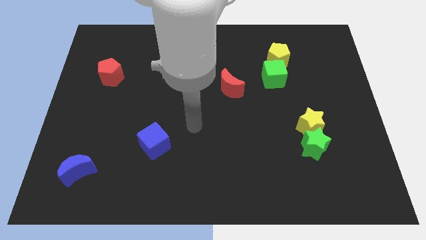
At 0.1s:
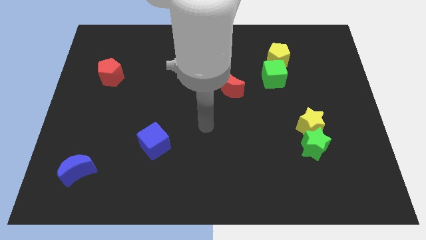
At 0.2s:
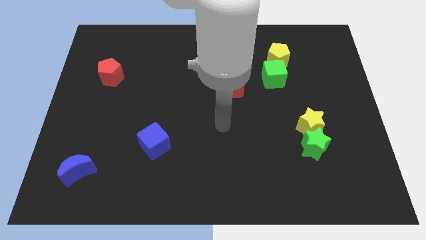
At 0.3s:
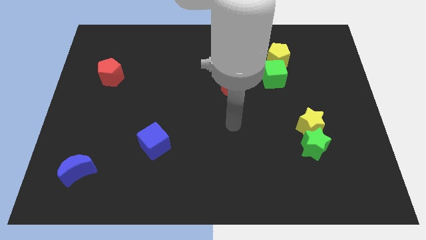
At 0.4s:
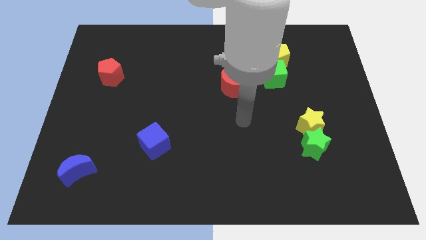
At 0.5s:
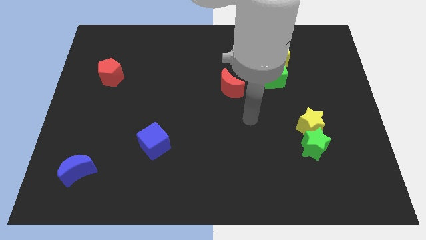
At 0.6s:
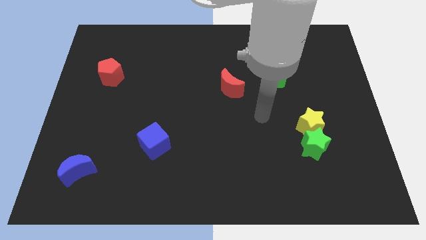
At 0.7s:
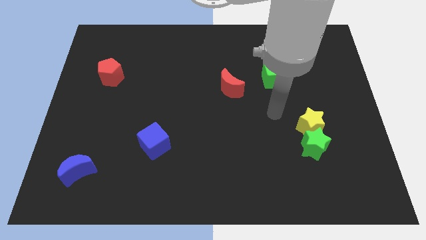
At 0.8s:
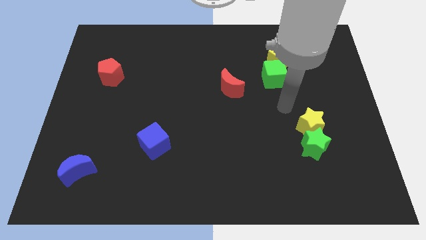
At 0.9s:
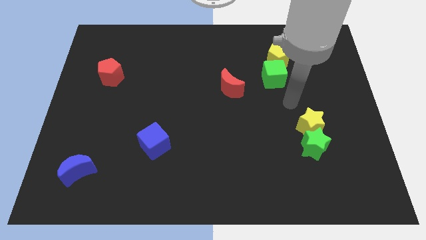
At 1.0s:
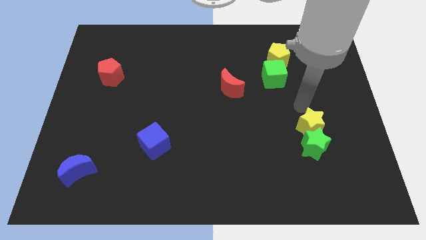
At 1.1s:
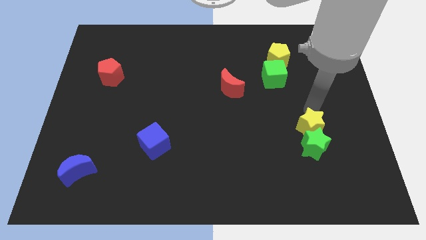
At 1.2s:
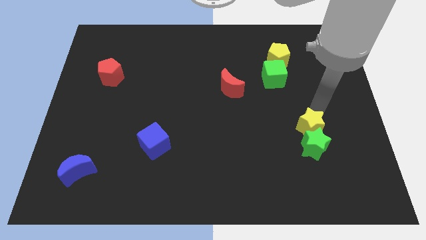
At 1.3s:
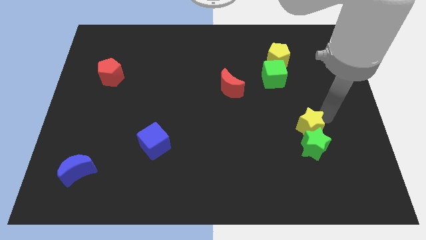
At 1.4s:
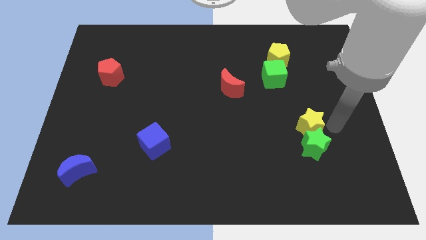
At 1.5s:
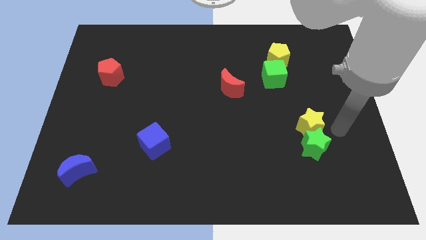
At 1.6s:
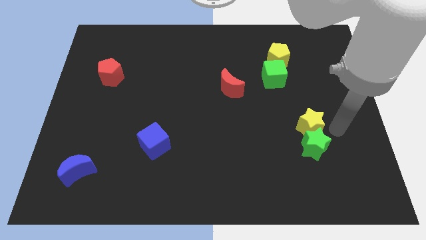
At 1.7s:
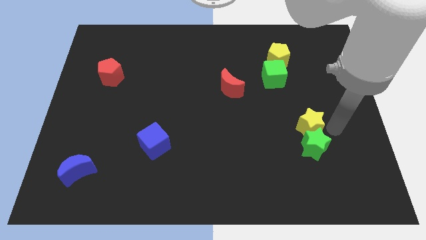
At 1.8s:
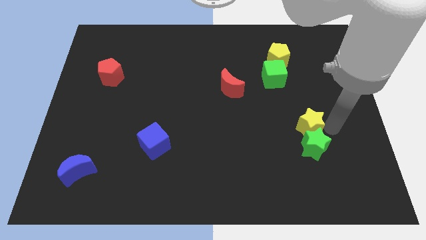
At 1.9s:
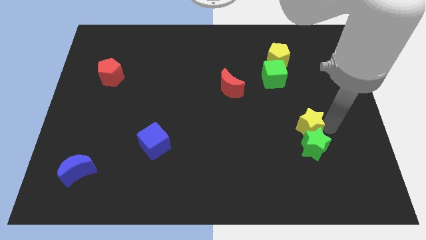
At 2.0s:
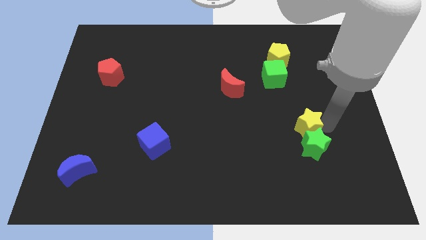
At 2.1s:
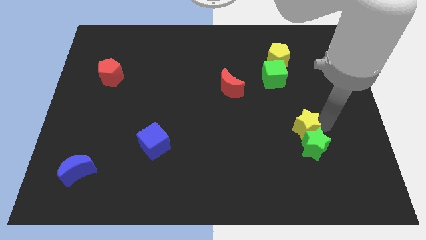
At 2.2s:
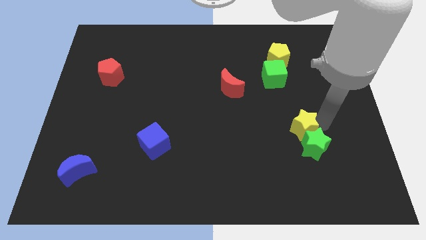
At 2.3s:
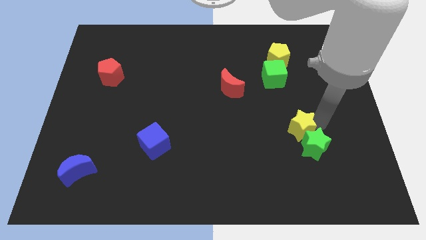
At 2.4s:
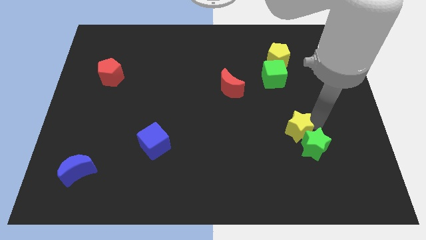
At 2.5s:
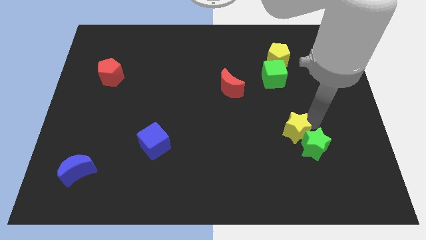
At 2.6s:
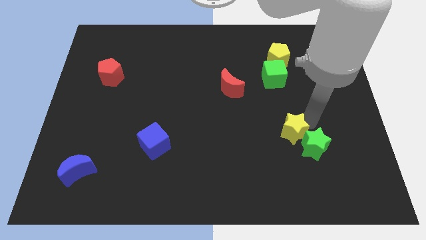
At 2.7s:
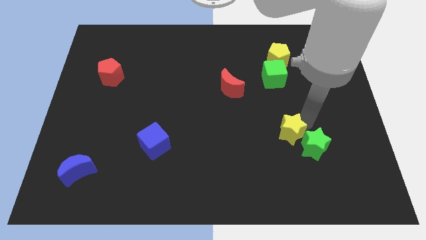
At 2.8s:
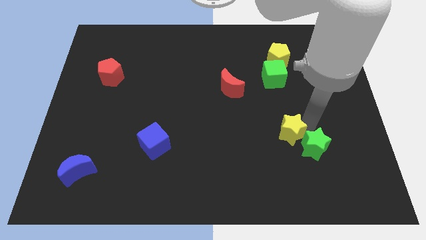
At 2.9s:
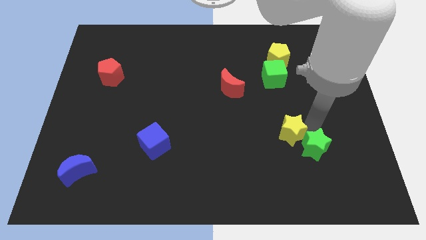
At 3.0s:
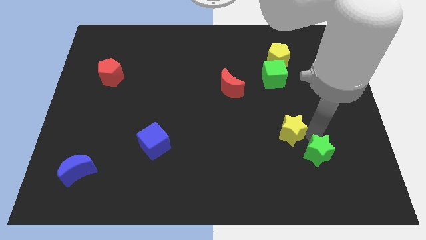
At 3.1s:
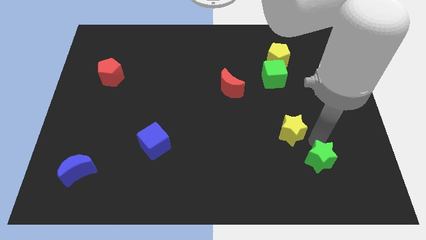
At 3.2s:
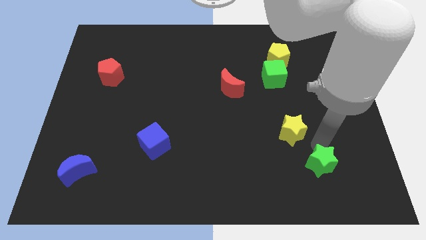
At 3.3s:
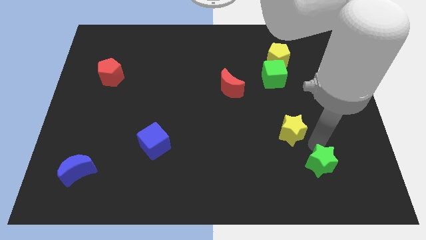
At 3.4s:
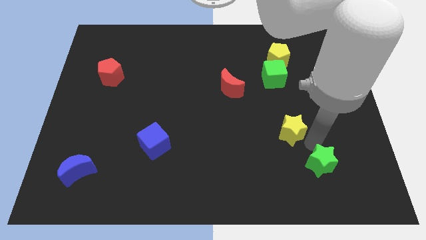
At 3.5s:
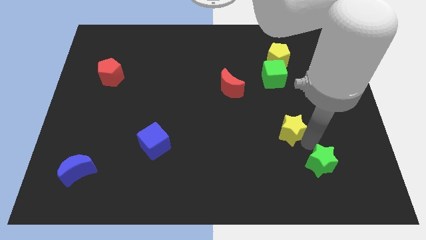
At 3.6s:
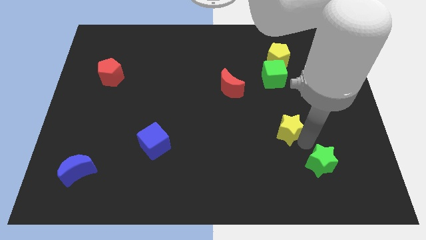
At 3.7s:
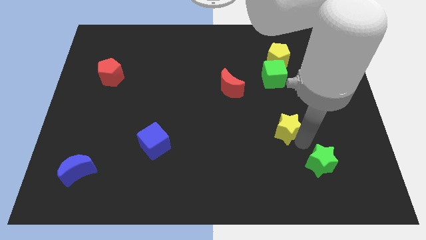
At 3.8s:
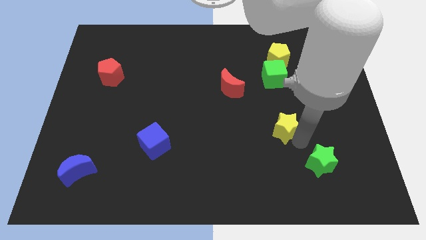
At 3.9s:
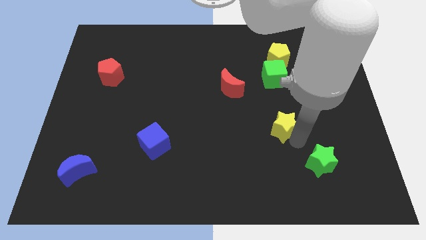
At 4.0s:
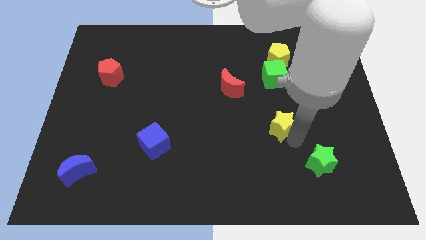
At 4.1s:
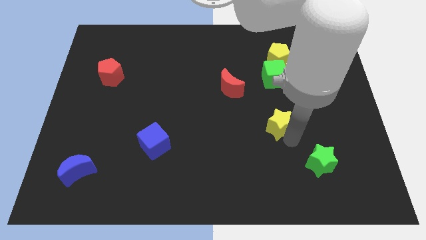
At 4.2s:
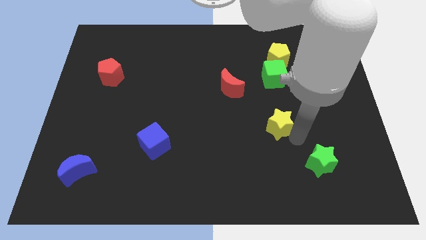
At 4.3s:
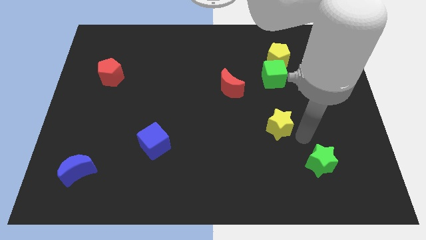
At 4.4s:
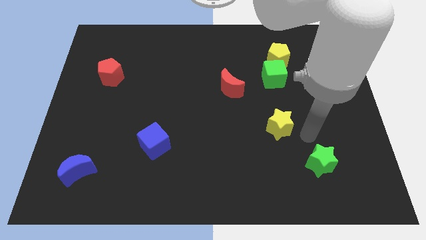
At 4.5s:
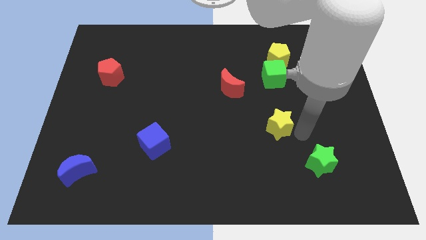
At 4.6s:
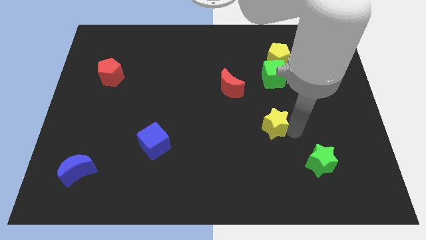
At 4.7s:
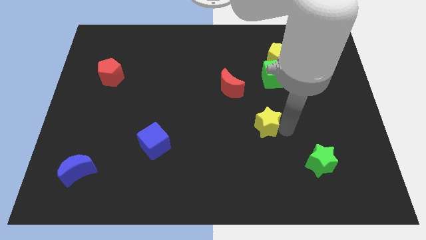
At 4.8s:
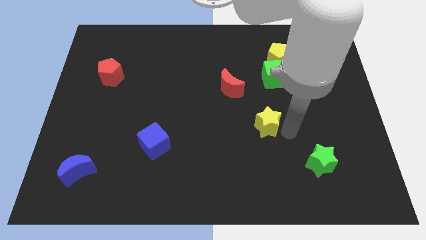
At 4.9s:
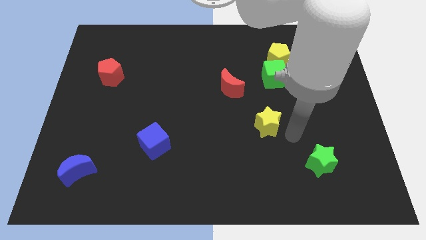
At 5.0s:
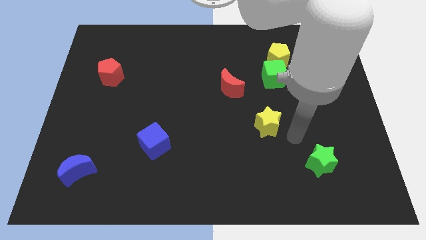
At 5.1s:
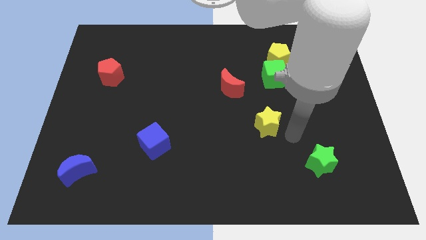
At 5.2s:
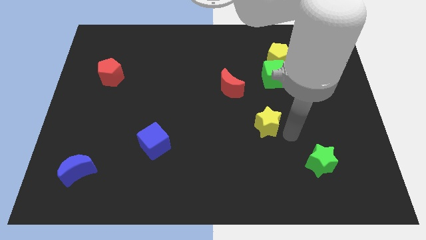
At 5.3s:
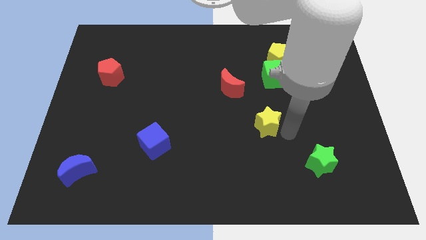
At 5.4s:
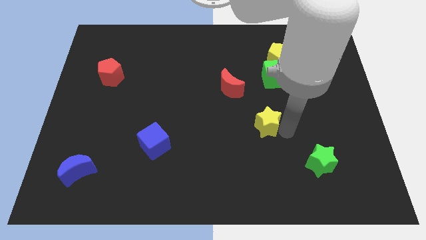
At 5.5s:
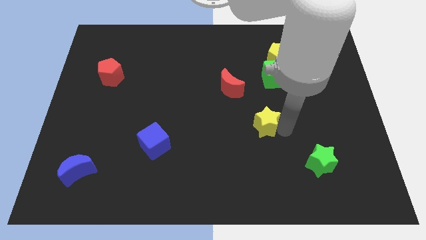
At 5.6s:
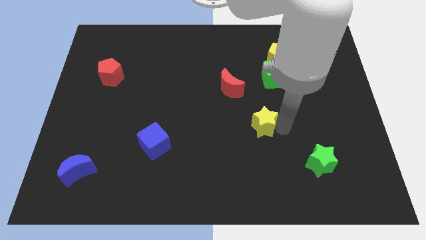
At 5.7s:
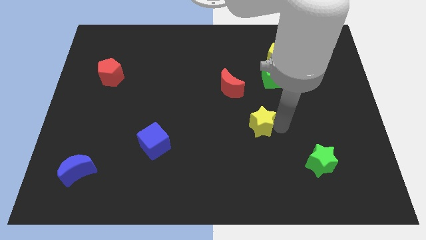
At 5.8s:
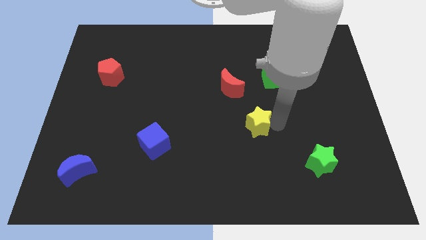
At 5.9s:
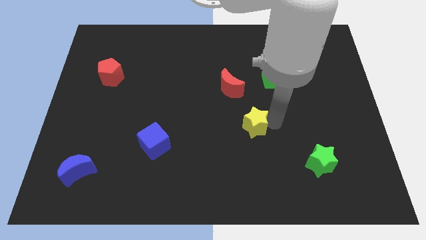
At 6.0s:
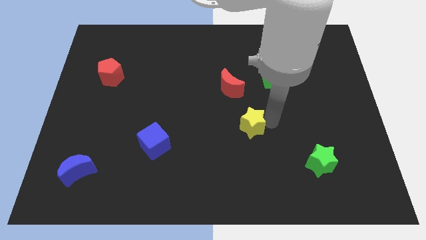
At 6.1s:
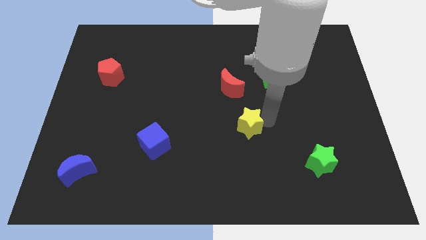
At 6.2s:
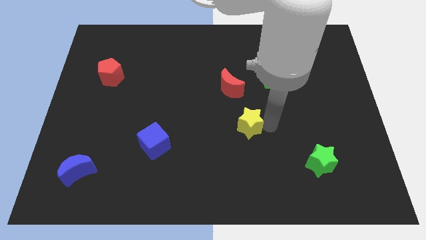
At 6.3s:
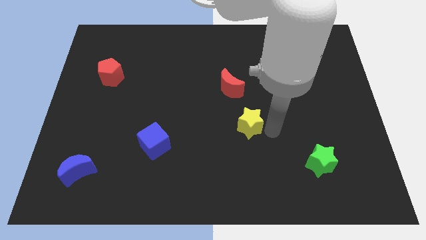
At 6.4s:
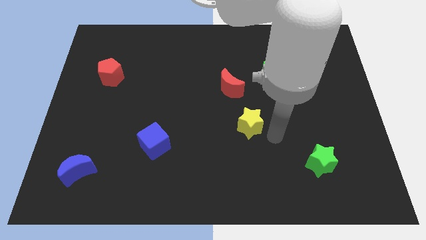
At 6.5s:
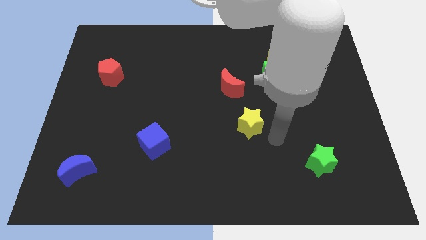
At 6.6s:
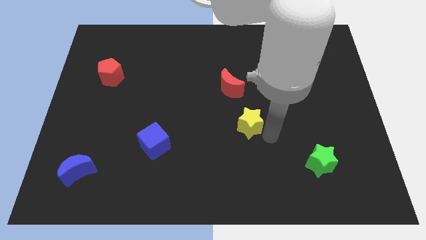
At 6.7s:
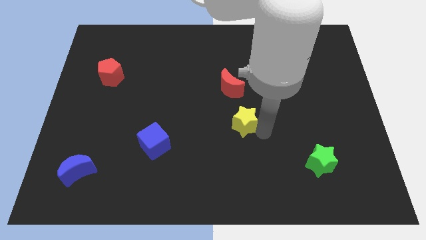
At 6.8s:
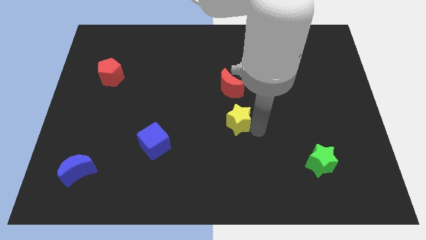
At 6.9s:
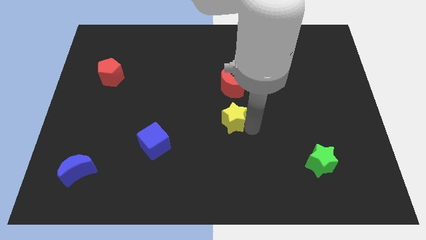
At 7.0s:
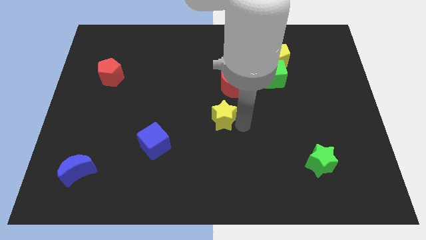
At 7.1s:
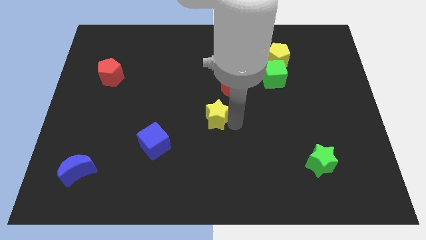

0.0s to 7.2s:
move the yellow star to the bottom left of the red moon
